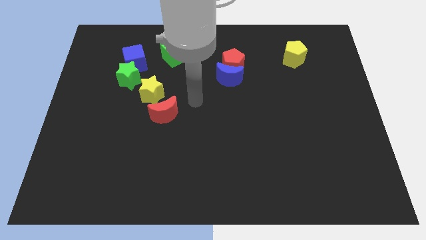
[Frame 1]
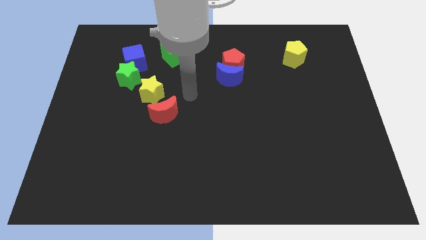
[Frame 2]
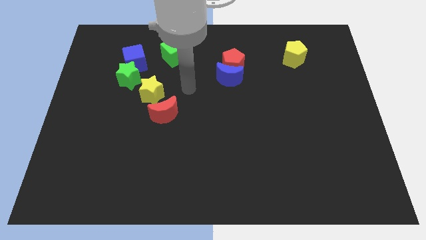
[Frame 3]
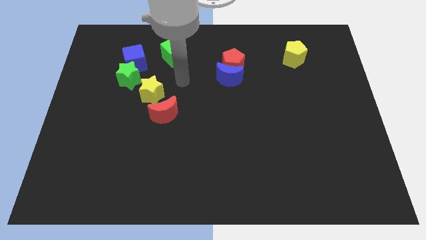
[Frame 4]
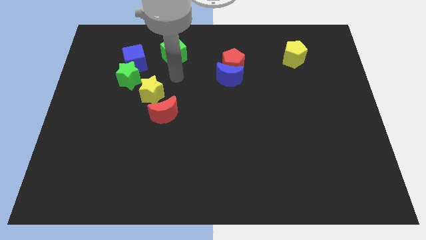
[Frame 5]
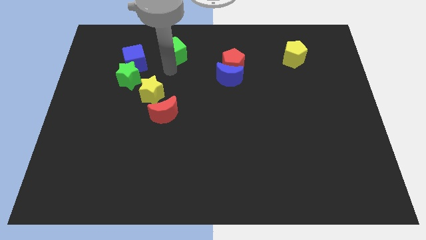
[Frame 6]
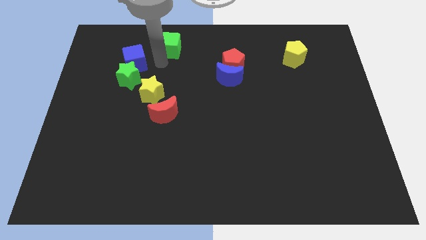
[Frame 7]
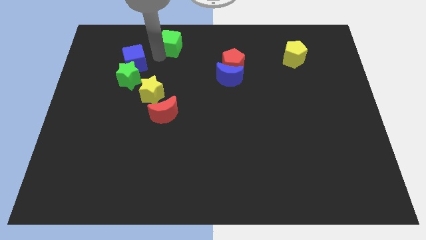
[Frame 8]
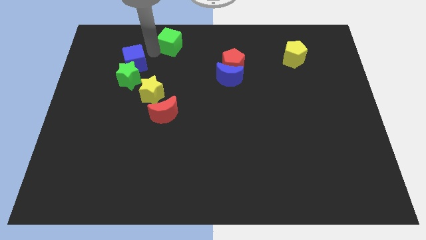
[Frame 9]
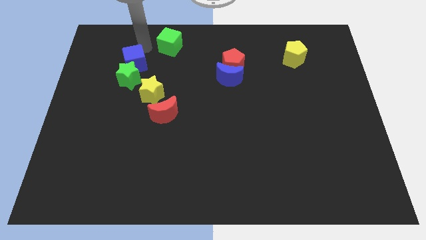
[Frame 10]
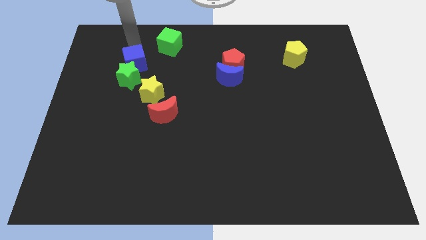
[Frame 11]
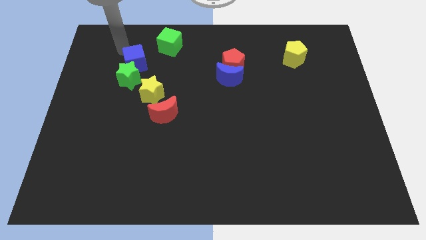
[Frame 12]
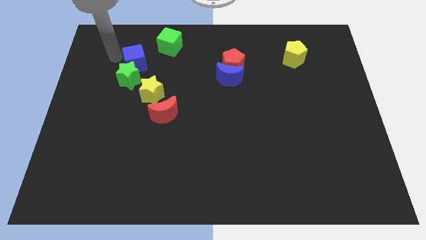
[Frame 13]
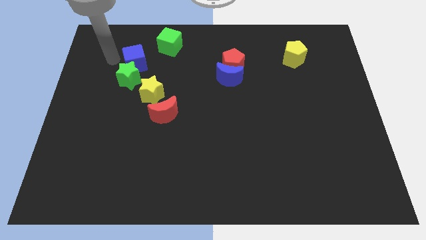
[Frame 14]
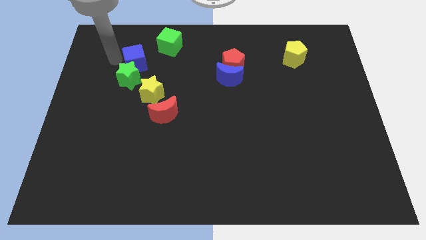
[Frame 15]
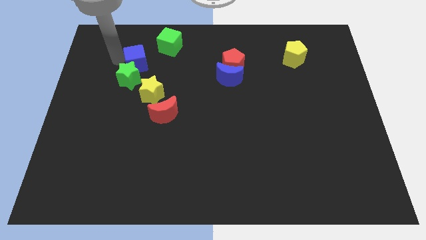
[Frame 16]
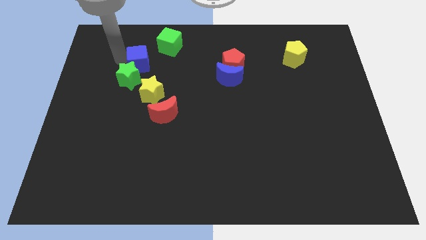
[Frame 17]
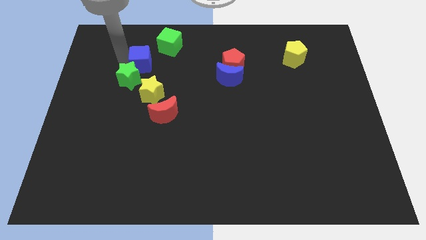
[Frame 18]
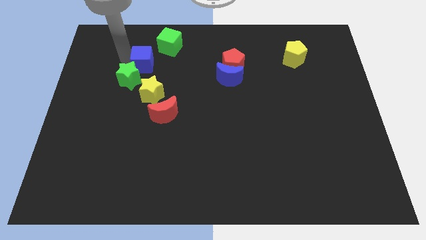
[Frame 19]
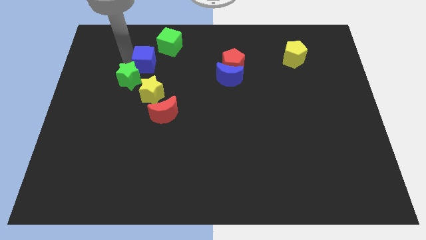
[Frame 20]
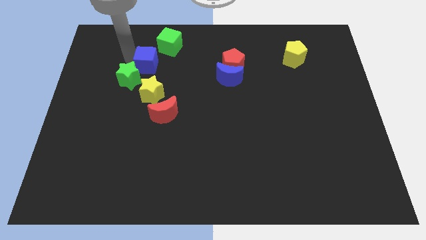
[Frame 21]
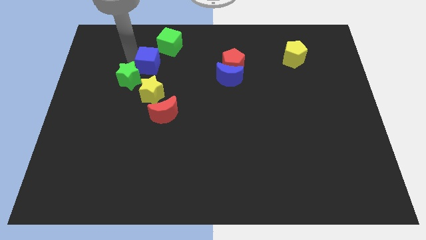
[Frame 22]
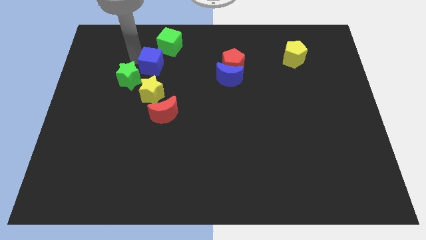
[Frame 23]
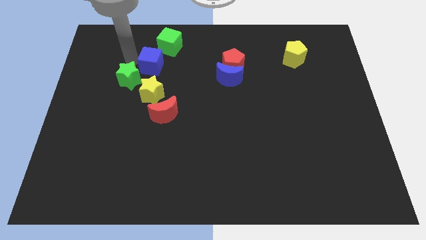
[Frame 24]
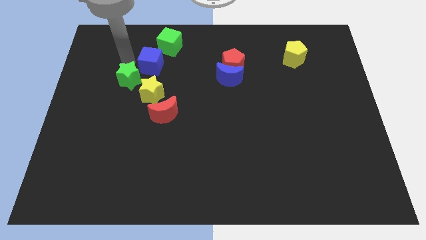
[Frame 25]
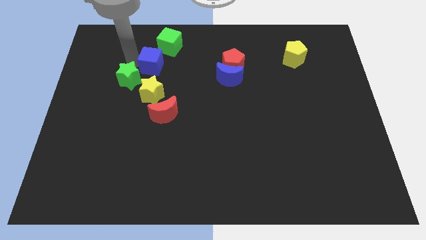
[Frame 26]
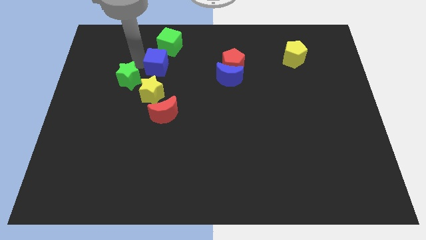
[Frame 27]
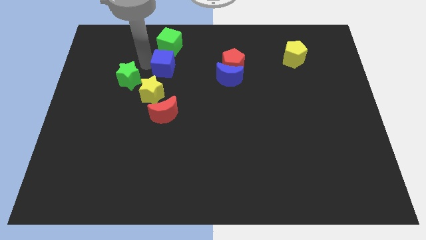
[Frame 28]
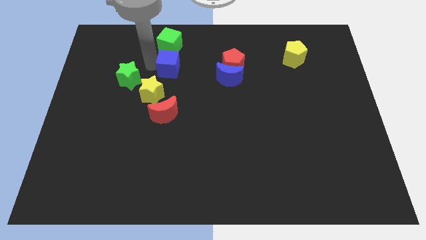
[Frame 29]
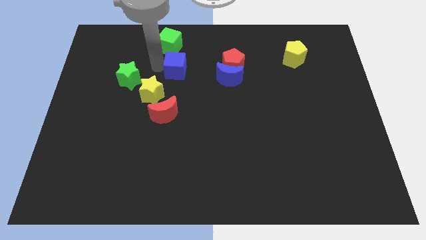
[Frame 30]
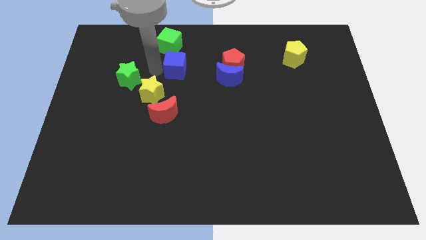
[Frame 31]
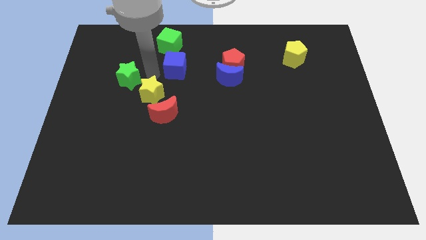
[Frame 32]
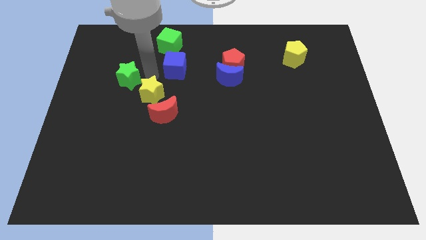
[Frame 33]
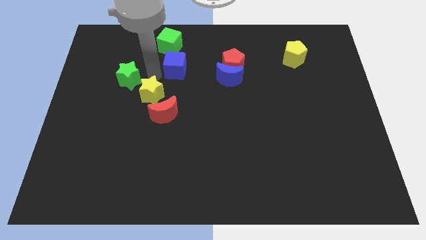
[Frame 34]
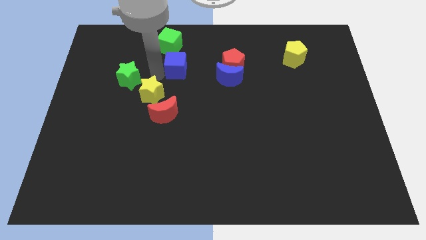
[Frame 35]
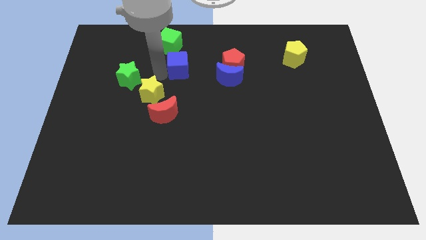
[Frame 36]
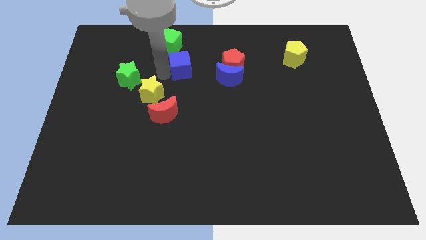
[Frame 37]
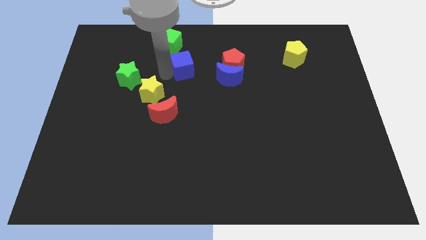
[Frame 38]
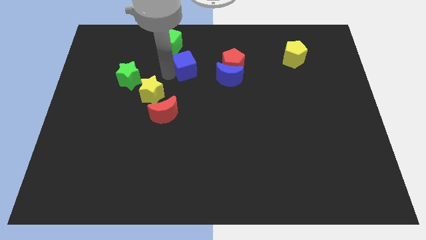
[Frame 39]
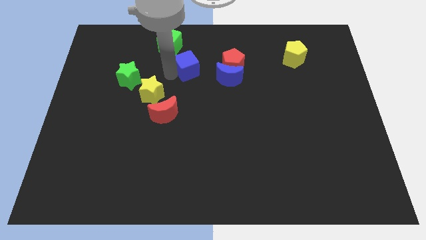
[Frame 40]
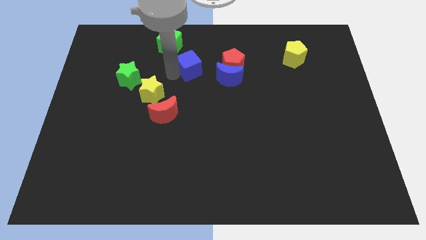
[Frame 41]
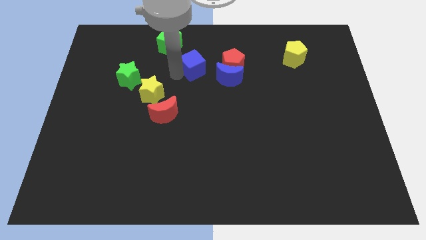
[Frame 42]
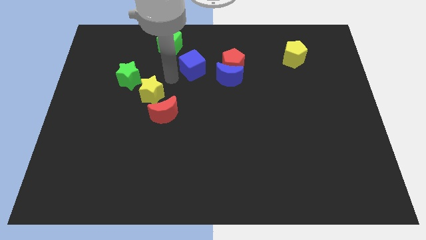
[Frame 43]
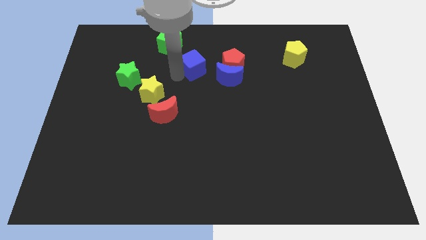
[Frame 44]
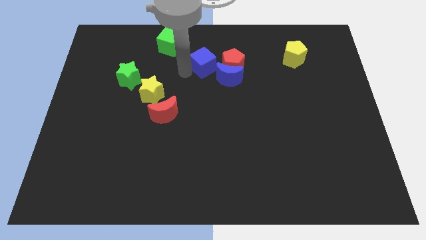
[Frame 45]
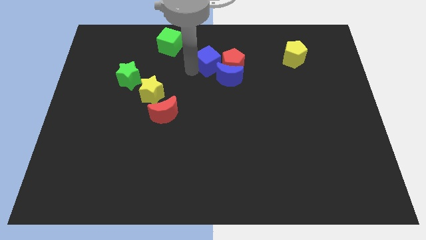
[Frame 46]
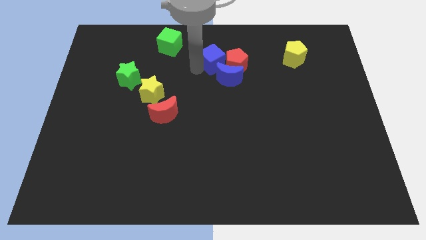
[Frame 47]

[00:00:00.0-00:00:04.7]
push the blue cube to the right

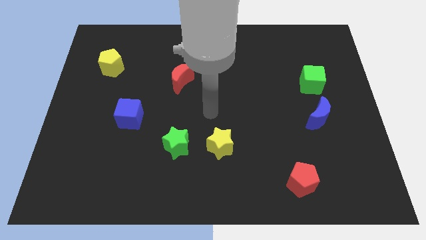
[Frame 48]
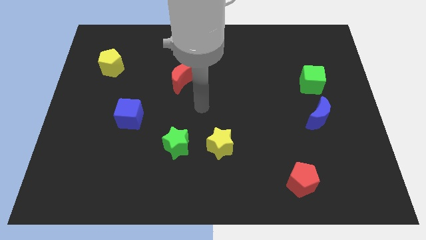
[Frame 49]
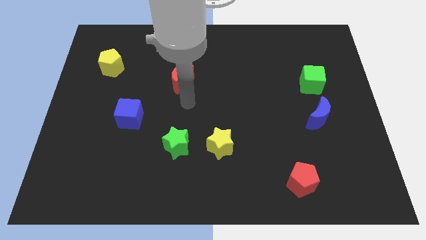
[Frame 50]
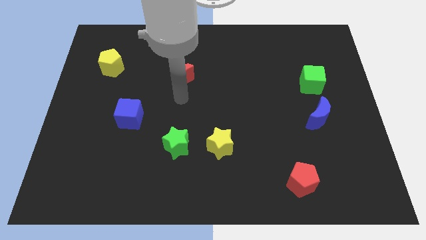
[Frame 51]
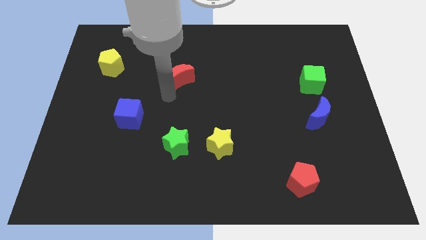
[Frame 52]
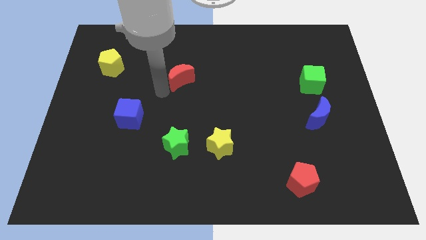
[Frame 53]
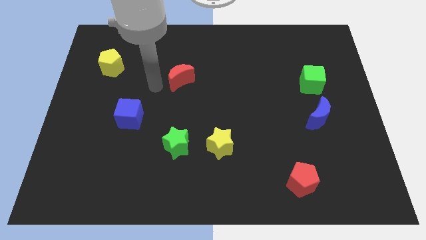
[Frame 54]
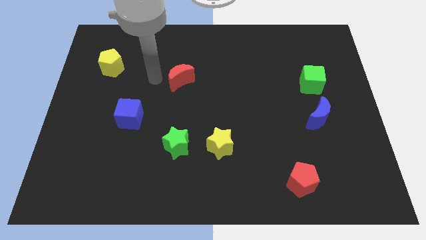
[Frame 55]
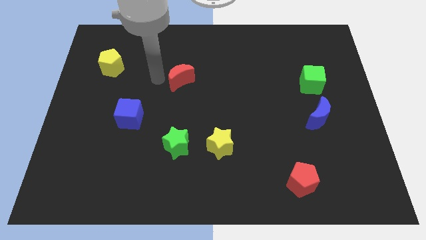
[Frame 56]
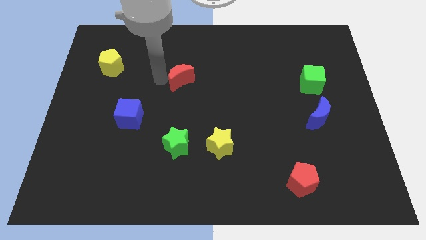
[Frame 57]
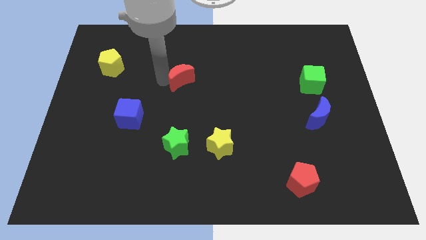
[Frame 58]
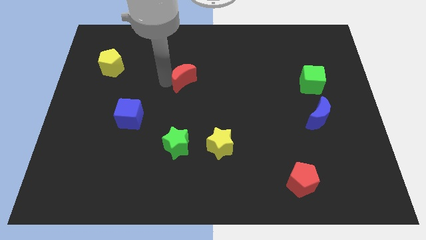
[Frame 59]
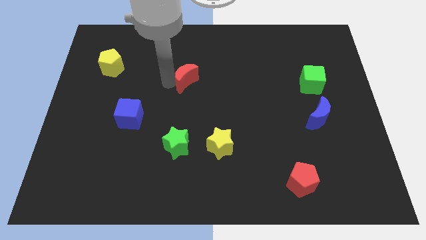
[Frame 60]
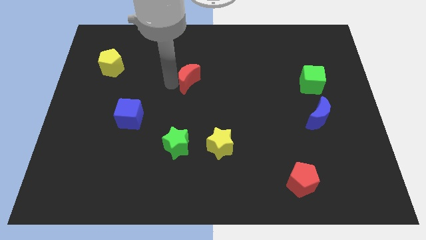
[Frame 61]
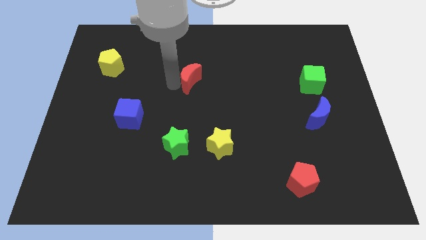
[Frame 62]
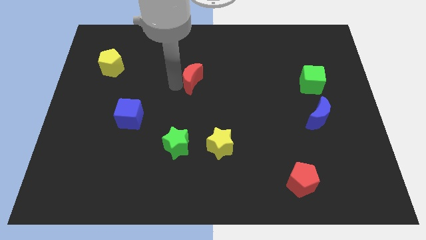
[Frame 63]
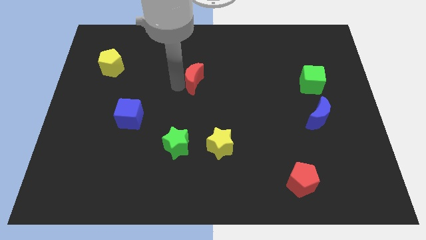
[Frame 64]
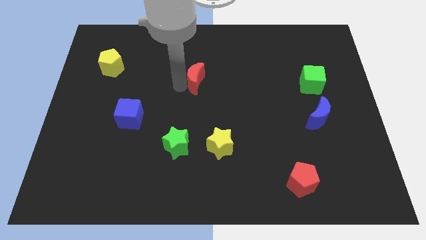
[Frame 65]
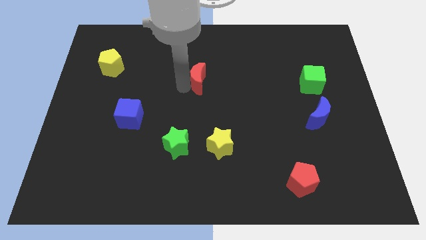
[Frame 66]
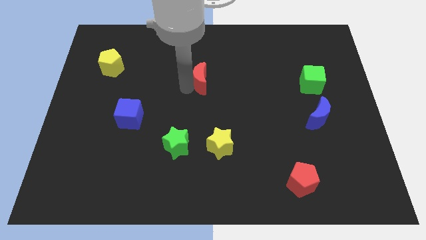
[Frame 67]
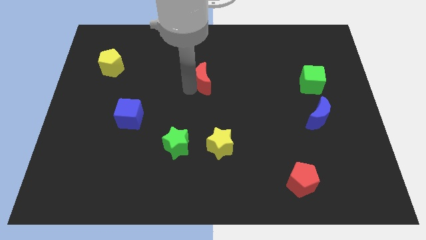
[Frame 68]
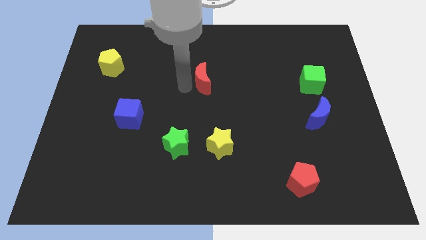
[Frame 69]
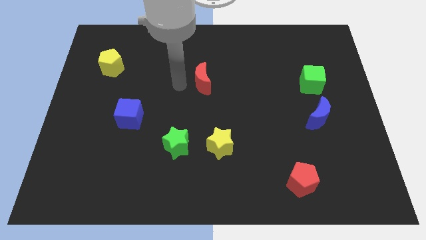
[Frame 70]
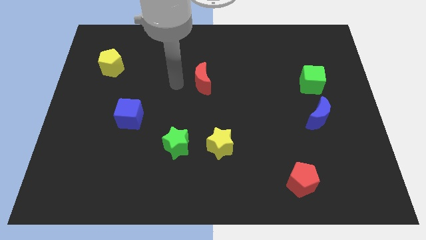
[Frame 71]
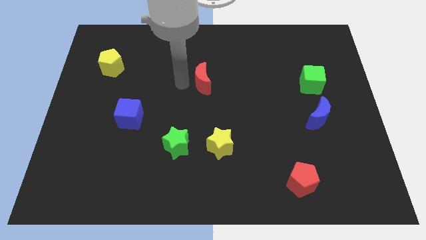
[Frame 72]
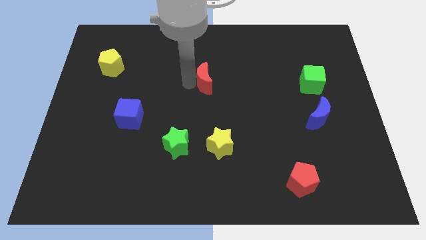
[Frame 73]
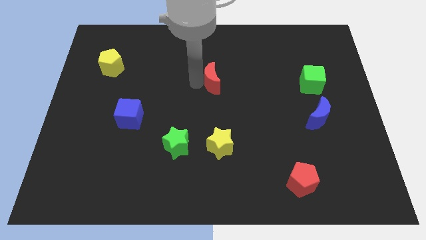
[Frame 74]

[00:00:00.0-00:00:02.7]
move the red moon a bit to the right

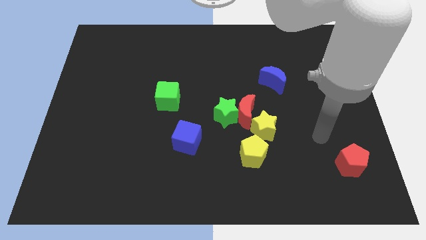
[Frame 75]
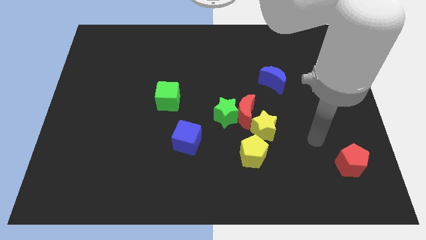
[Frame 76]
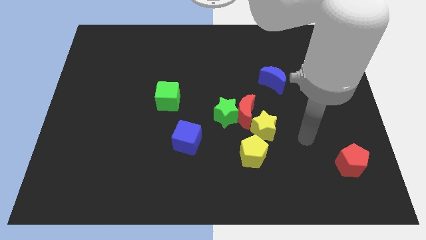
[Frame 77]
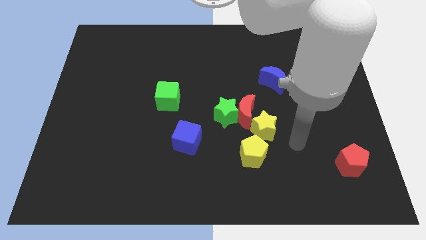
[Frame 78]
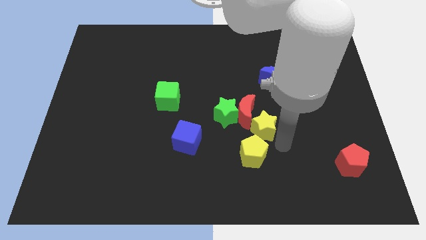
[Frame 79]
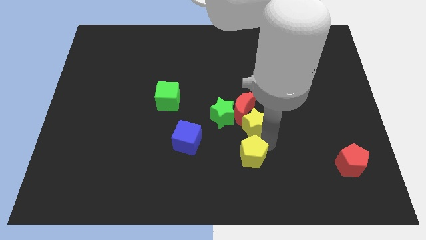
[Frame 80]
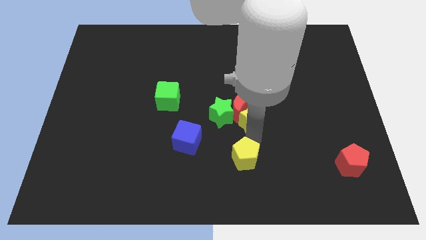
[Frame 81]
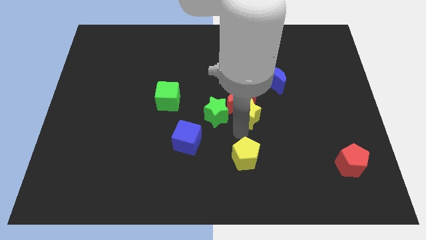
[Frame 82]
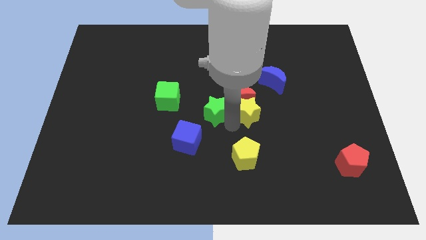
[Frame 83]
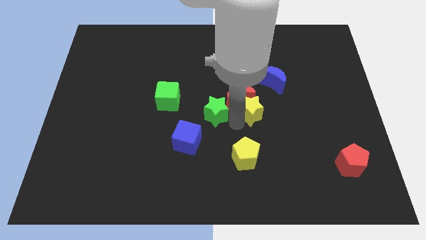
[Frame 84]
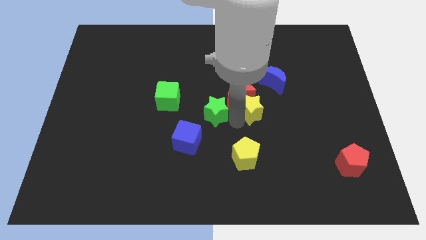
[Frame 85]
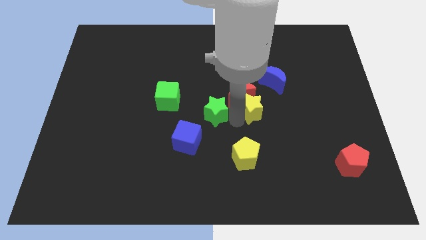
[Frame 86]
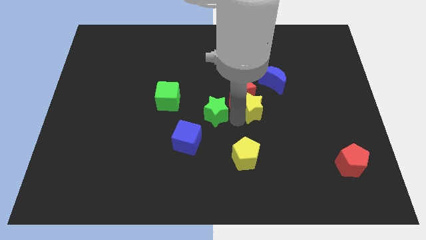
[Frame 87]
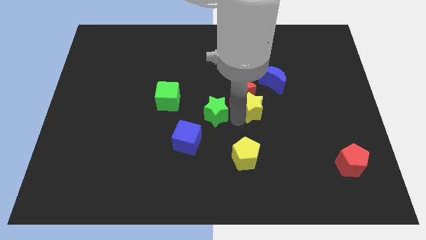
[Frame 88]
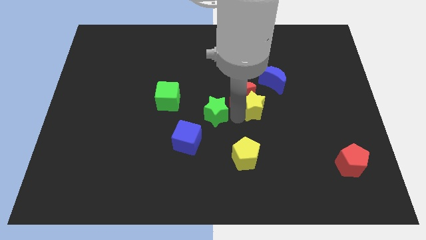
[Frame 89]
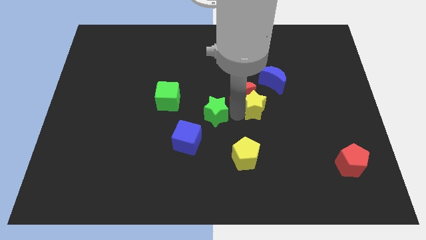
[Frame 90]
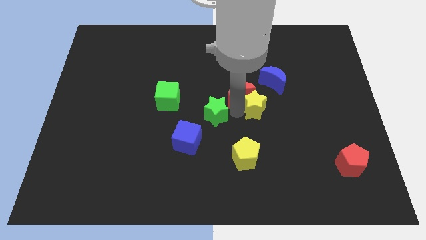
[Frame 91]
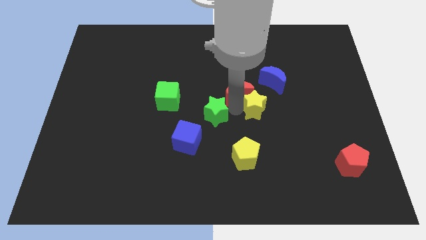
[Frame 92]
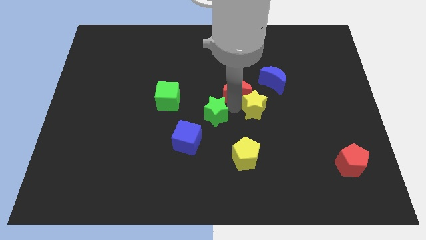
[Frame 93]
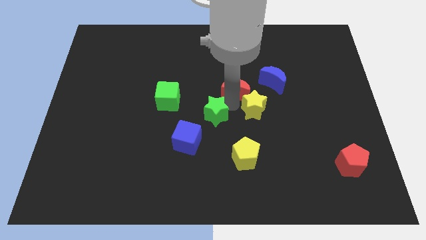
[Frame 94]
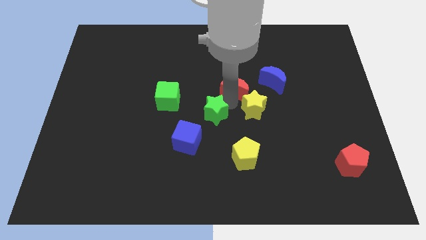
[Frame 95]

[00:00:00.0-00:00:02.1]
slightly slide the red moon upwards
